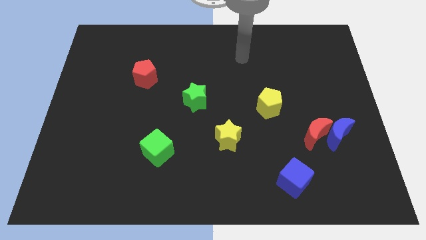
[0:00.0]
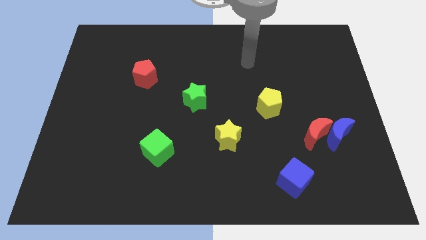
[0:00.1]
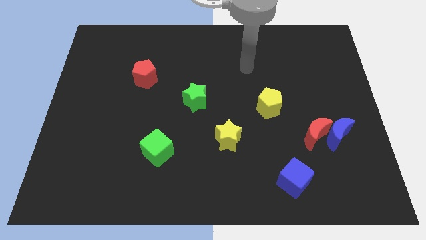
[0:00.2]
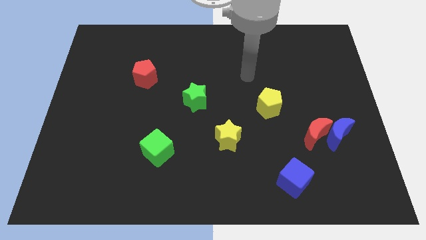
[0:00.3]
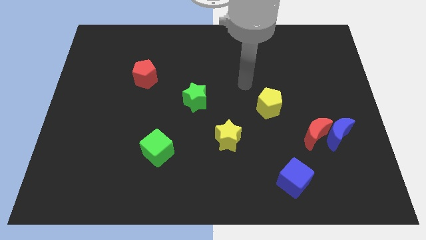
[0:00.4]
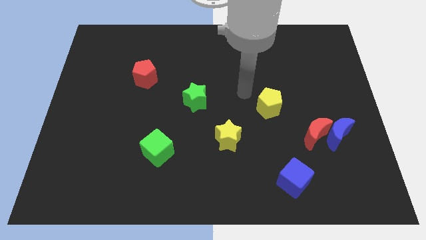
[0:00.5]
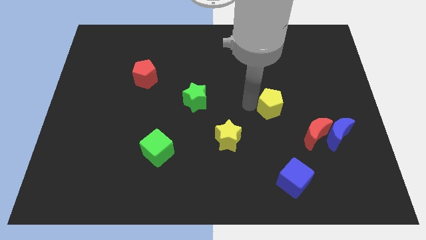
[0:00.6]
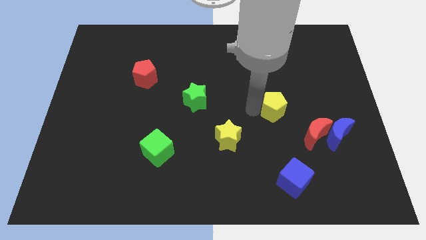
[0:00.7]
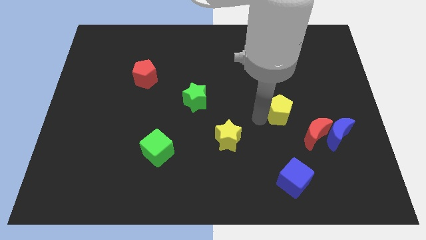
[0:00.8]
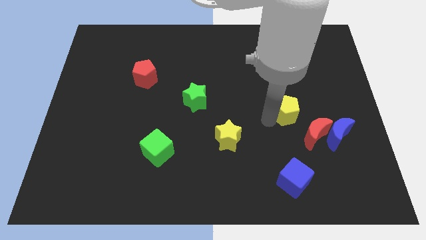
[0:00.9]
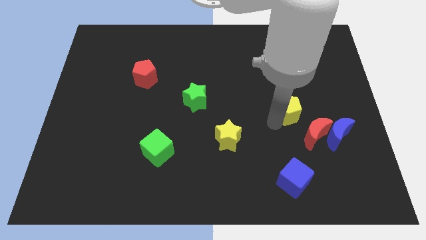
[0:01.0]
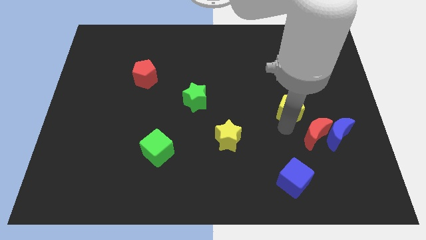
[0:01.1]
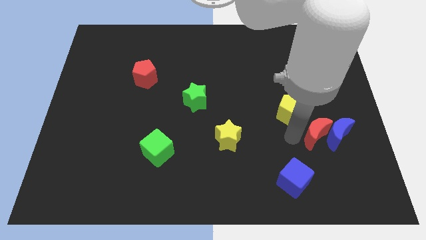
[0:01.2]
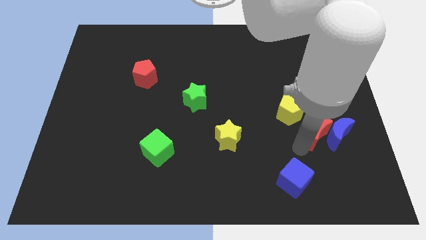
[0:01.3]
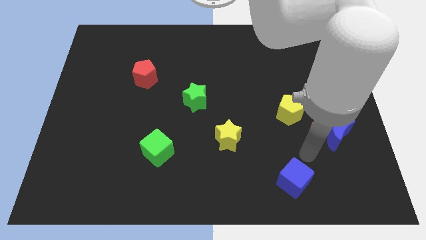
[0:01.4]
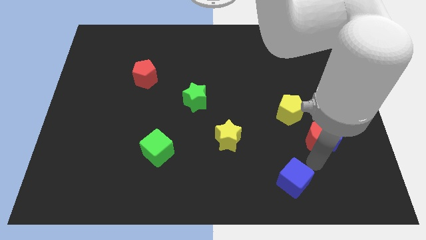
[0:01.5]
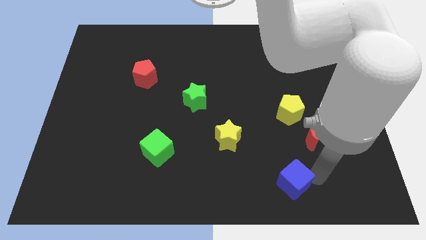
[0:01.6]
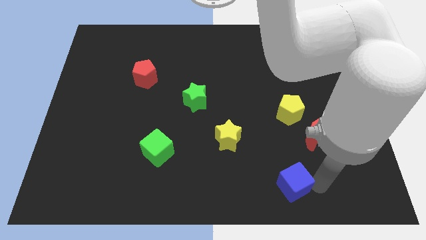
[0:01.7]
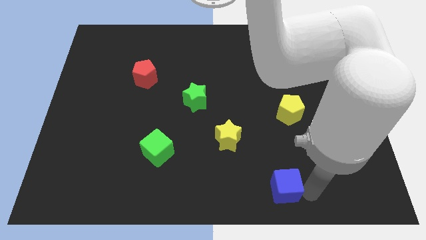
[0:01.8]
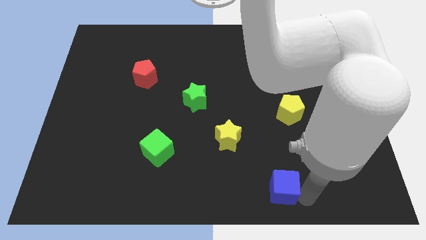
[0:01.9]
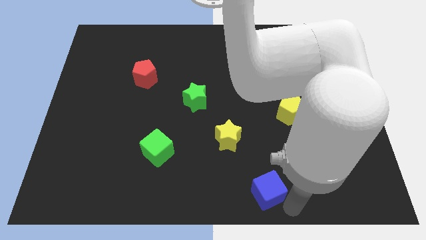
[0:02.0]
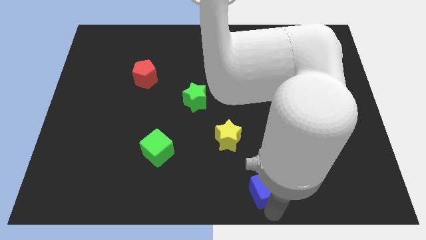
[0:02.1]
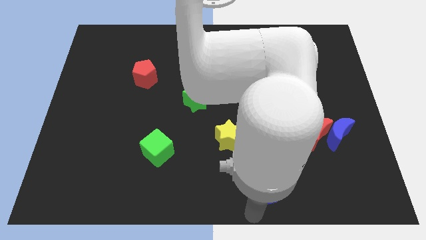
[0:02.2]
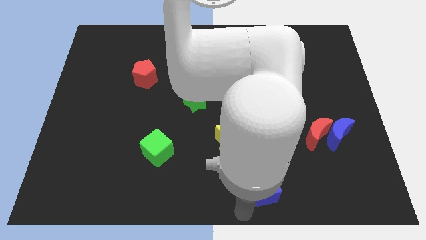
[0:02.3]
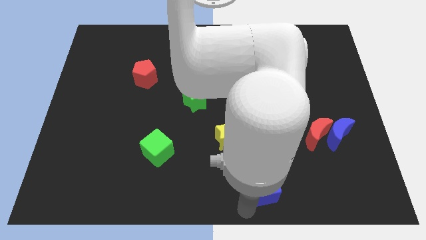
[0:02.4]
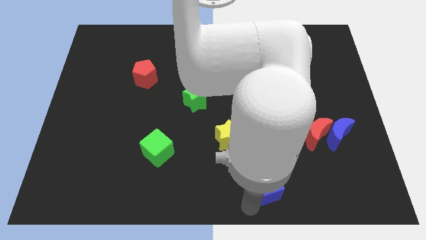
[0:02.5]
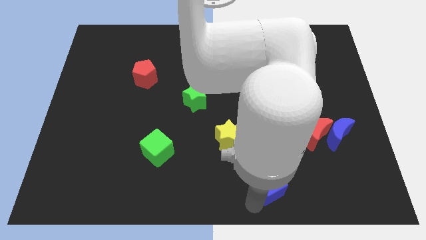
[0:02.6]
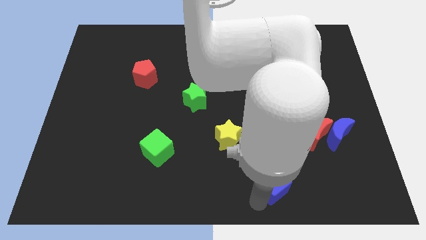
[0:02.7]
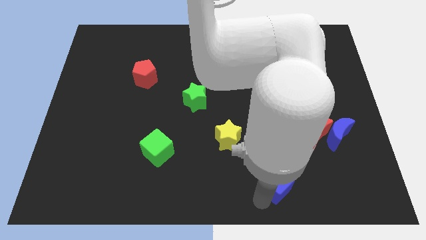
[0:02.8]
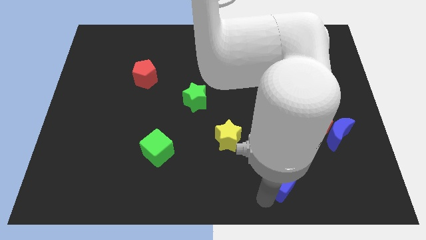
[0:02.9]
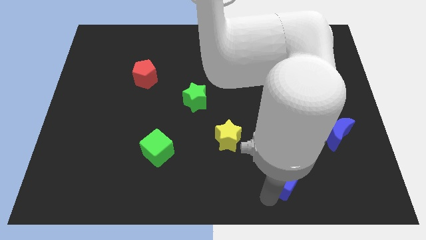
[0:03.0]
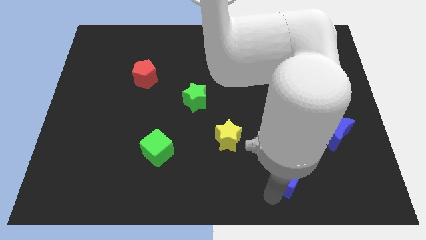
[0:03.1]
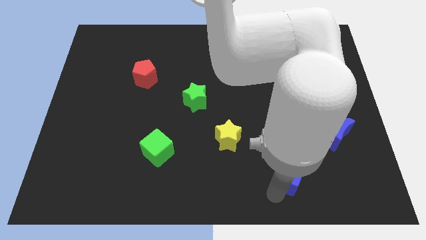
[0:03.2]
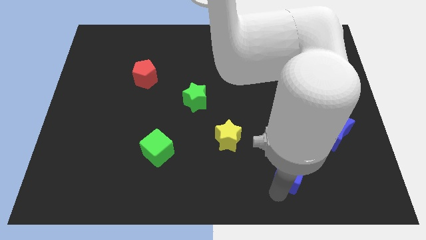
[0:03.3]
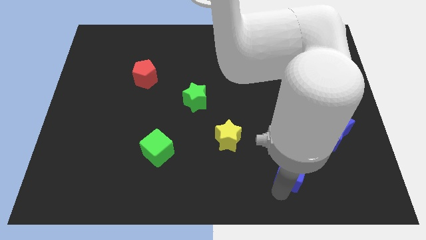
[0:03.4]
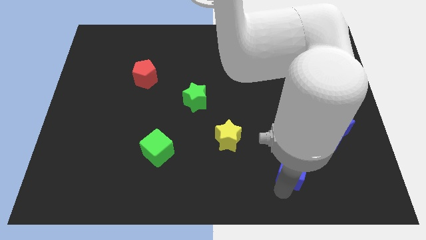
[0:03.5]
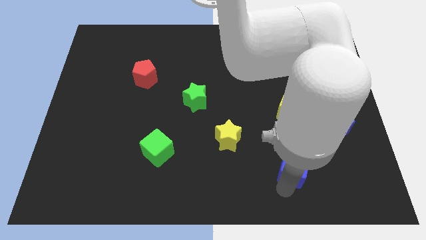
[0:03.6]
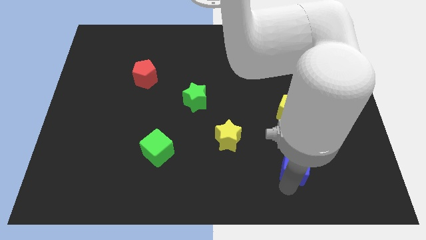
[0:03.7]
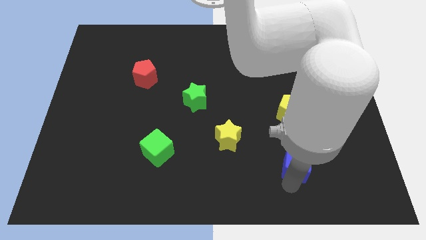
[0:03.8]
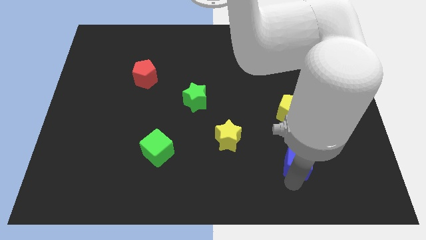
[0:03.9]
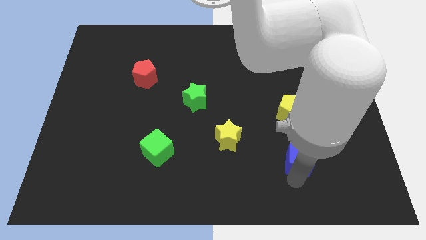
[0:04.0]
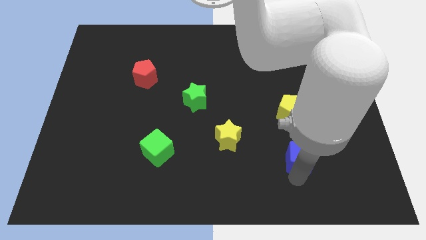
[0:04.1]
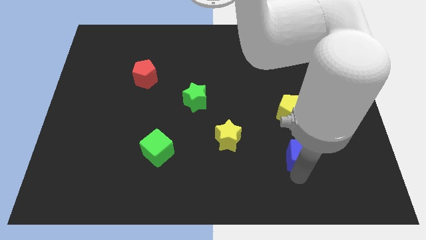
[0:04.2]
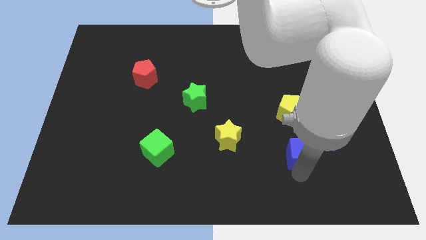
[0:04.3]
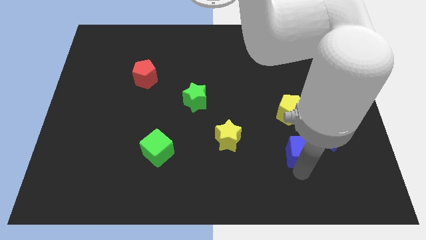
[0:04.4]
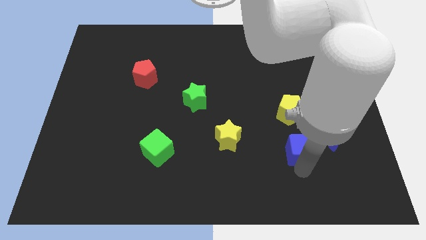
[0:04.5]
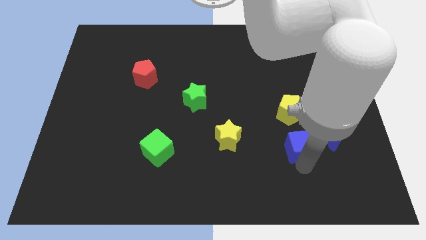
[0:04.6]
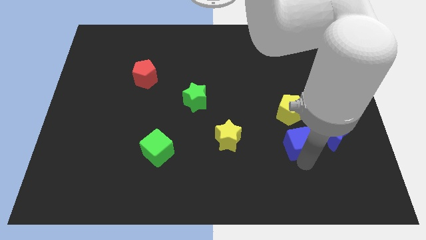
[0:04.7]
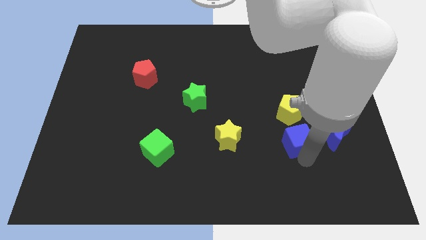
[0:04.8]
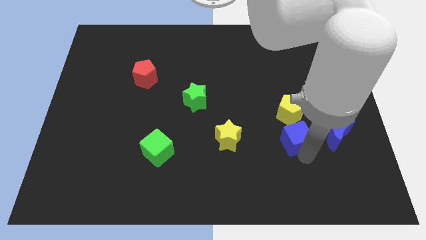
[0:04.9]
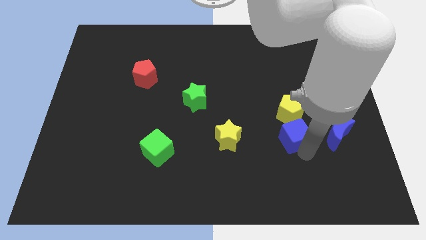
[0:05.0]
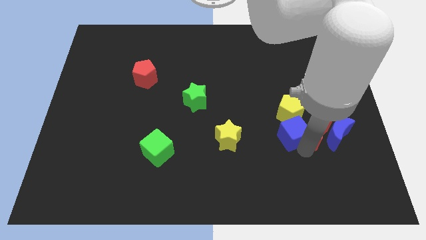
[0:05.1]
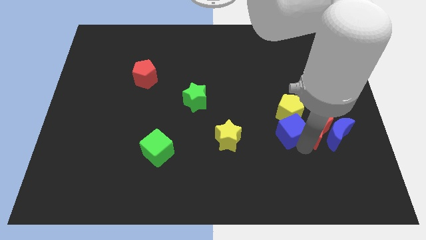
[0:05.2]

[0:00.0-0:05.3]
put the blue cube next to the yellow pentagon

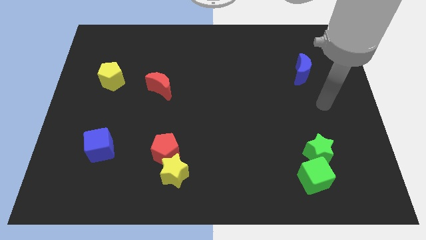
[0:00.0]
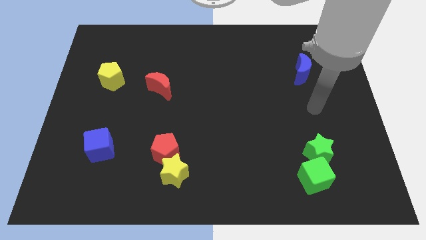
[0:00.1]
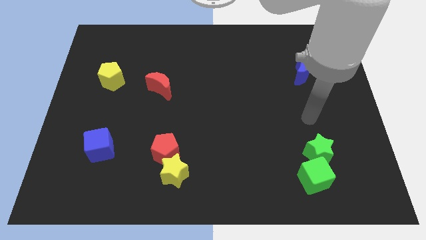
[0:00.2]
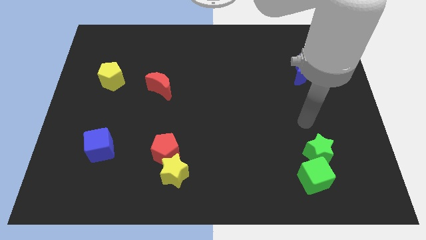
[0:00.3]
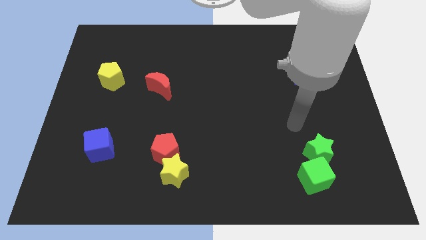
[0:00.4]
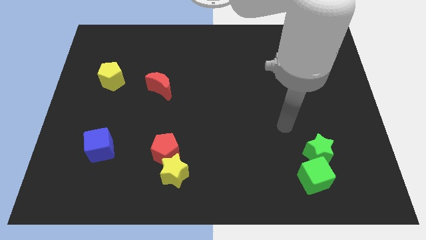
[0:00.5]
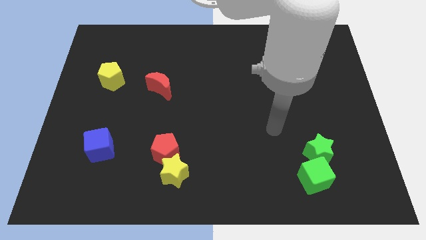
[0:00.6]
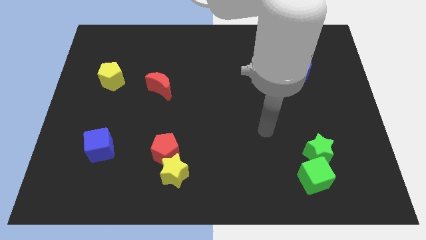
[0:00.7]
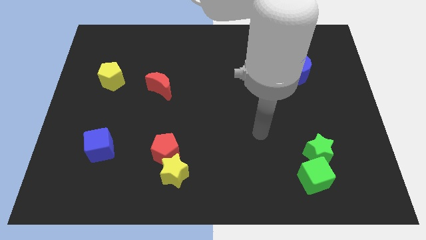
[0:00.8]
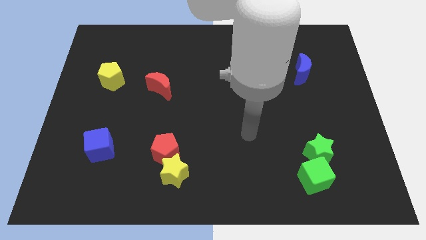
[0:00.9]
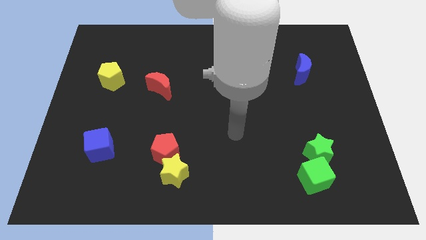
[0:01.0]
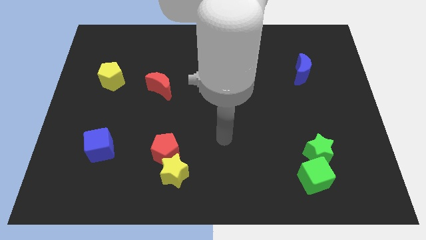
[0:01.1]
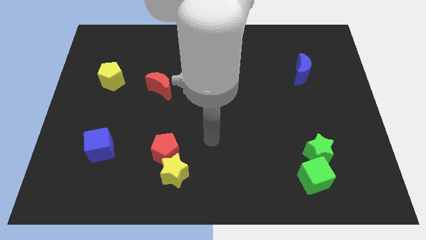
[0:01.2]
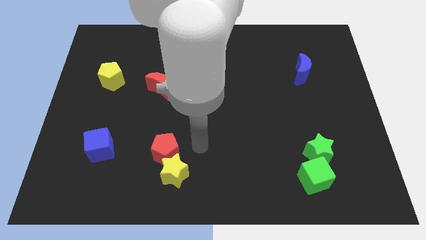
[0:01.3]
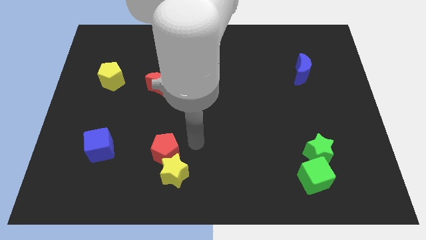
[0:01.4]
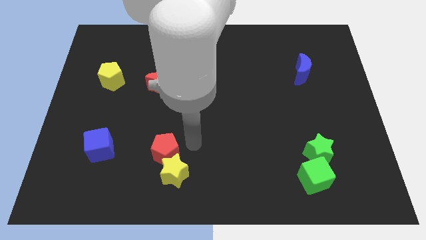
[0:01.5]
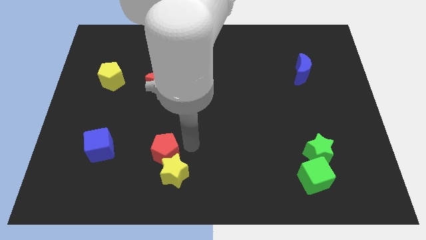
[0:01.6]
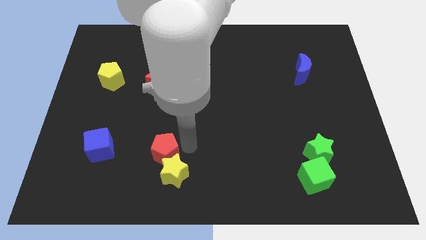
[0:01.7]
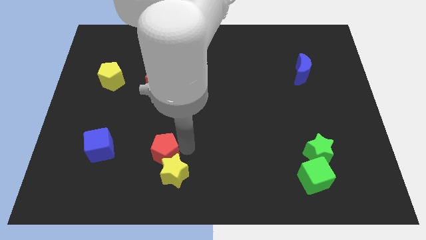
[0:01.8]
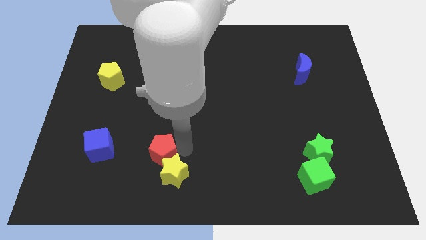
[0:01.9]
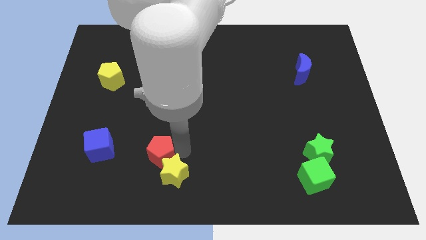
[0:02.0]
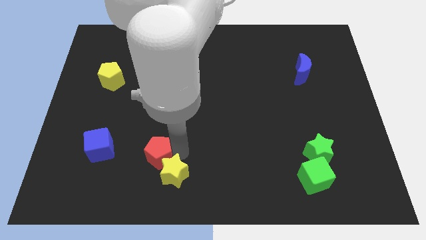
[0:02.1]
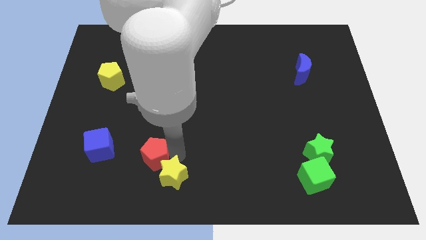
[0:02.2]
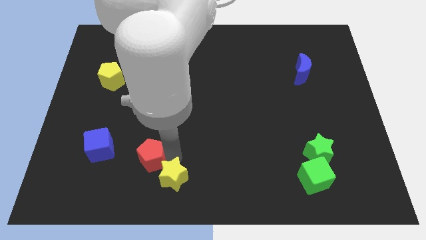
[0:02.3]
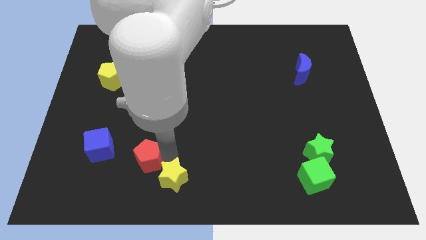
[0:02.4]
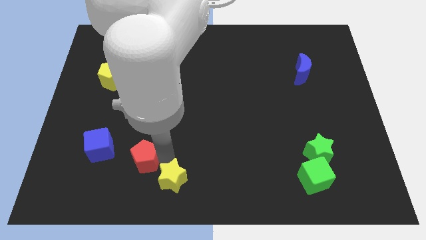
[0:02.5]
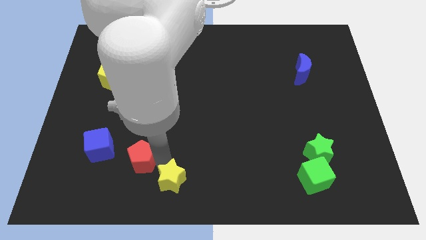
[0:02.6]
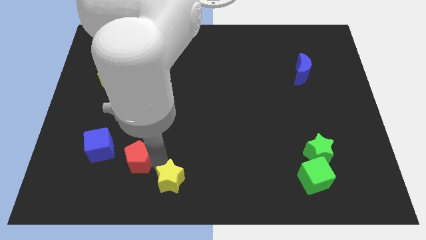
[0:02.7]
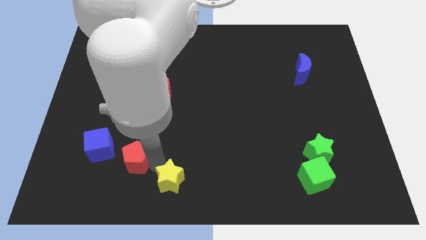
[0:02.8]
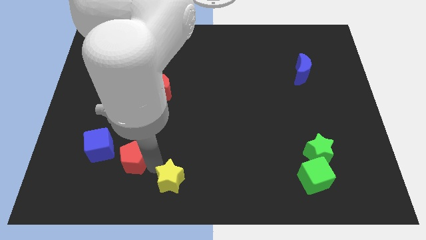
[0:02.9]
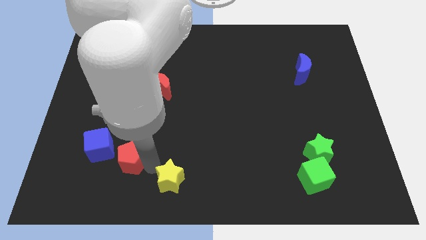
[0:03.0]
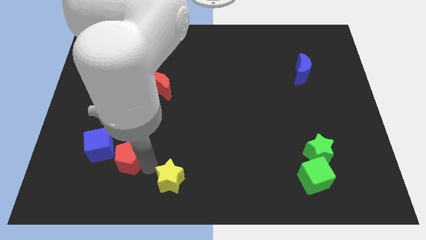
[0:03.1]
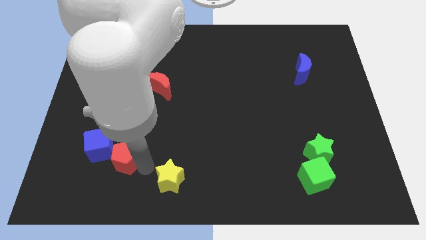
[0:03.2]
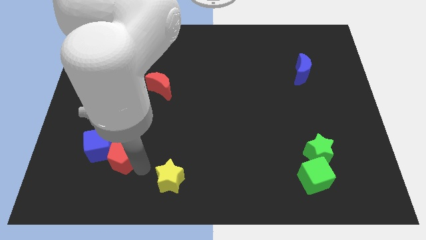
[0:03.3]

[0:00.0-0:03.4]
put the red pentagon to the blue cube
